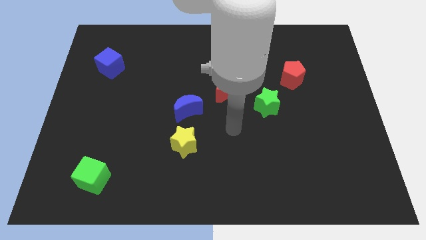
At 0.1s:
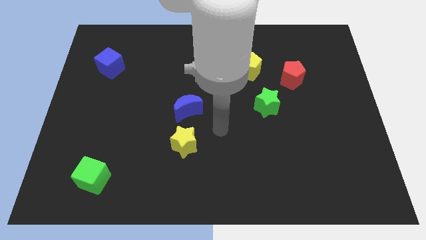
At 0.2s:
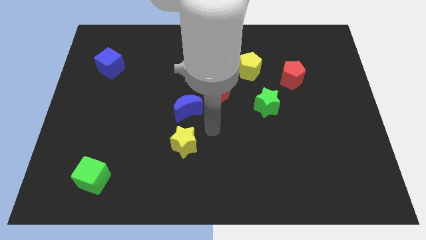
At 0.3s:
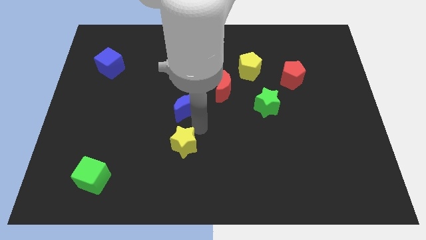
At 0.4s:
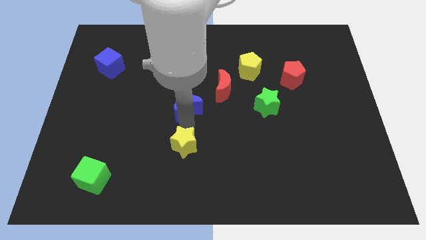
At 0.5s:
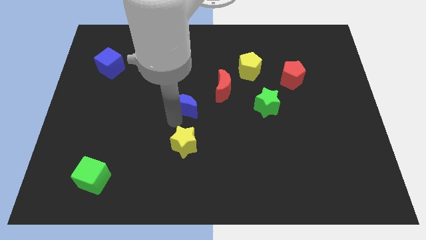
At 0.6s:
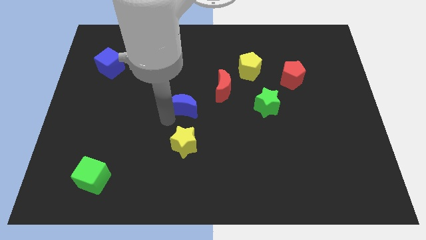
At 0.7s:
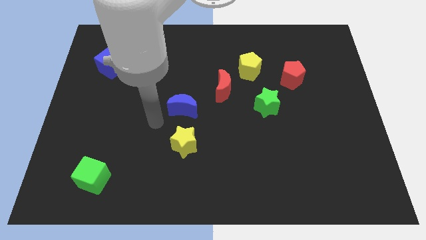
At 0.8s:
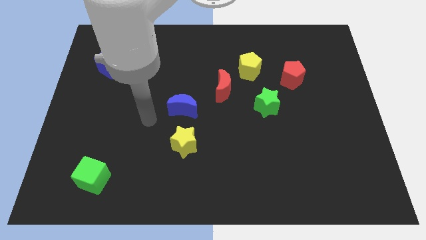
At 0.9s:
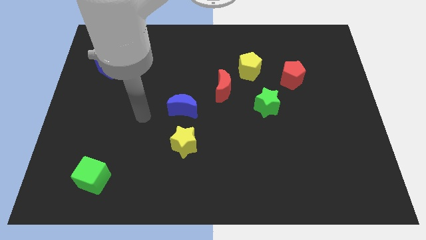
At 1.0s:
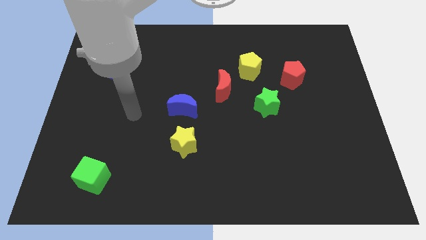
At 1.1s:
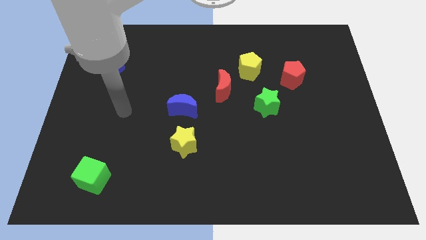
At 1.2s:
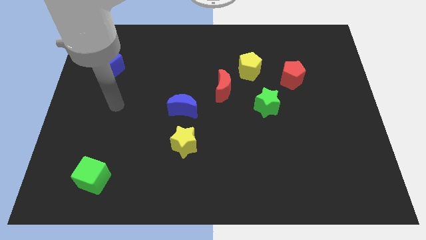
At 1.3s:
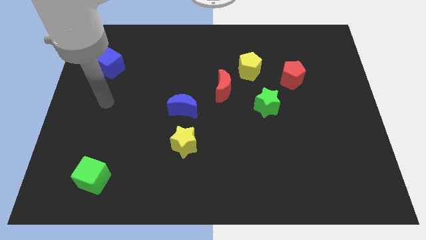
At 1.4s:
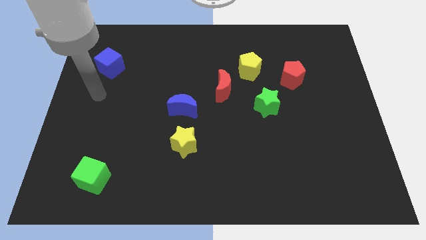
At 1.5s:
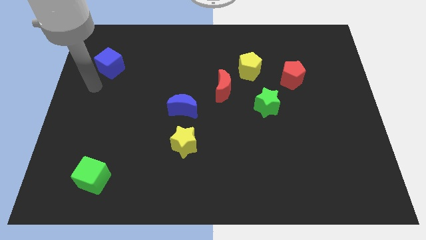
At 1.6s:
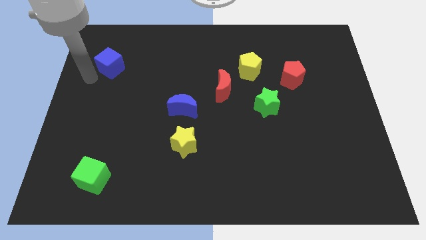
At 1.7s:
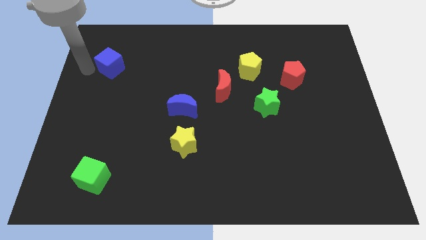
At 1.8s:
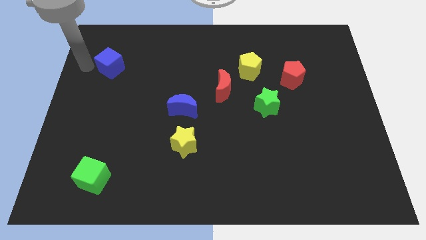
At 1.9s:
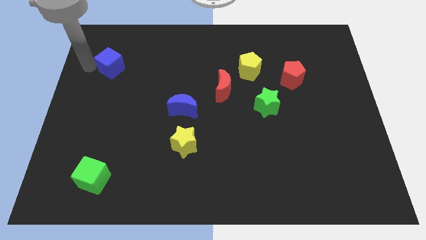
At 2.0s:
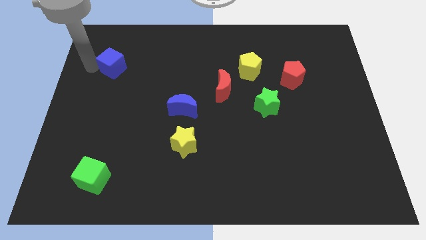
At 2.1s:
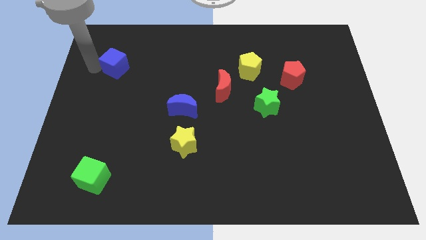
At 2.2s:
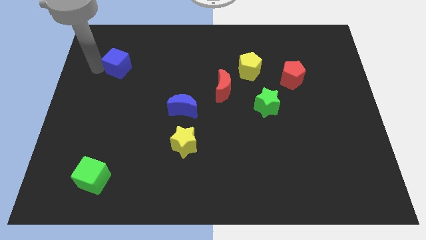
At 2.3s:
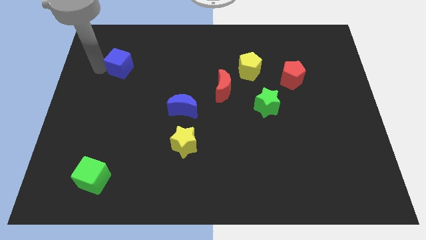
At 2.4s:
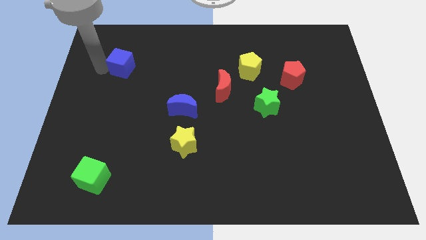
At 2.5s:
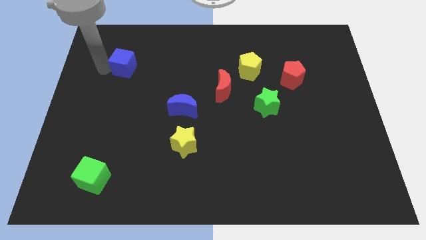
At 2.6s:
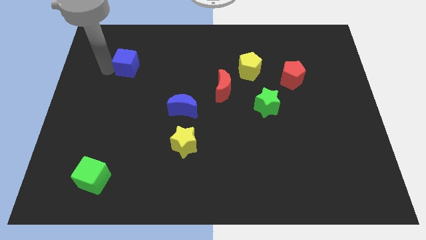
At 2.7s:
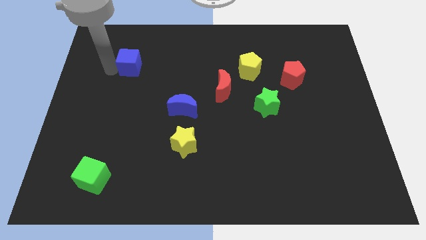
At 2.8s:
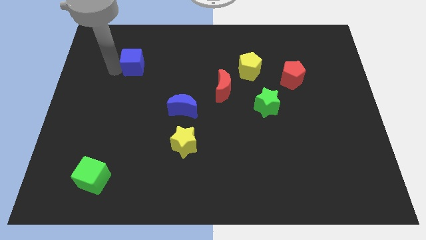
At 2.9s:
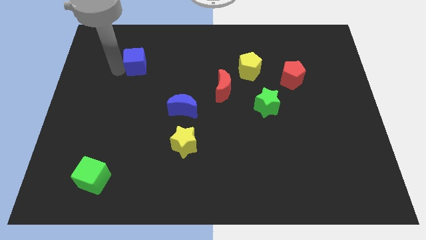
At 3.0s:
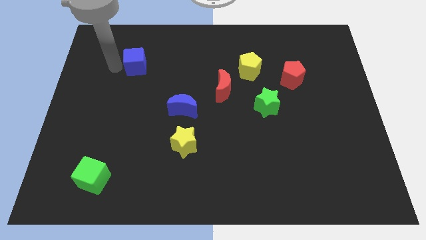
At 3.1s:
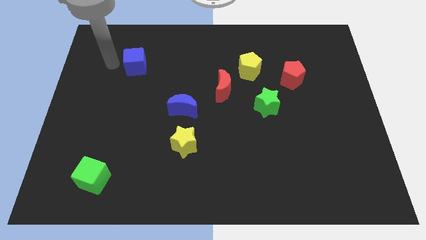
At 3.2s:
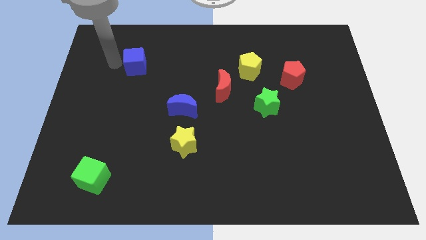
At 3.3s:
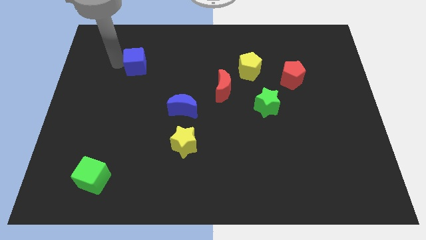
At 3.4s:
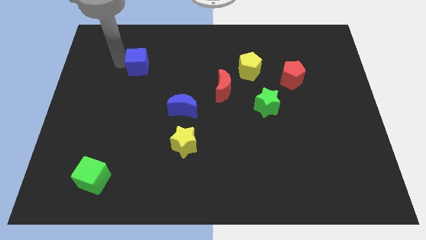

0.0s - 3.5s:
slightly slide the blue cube right

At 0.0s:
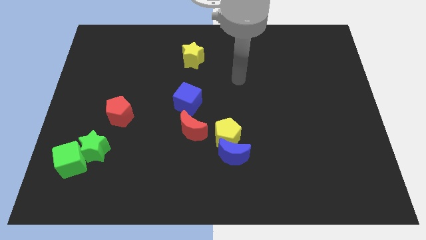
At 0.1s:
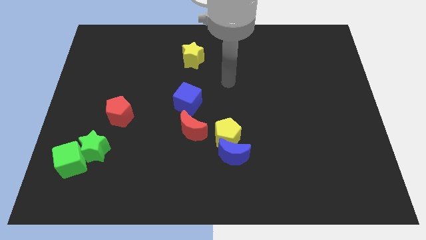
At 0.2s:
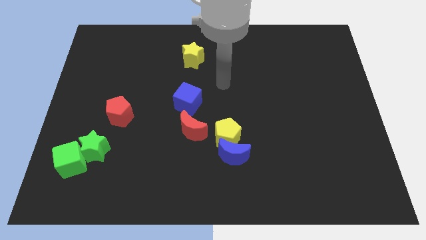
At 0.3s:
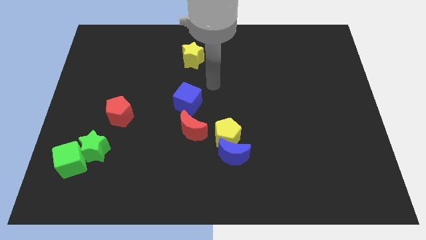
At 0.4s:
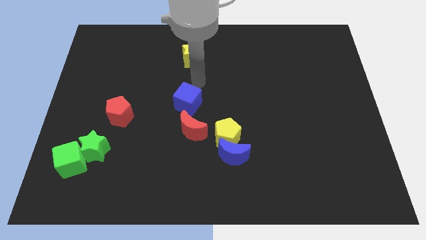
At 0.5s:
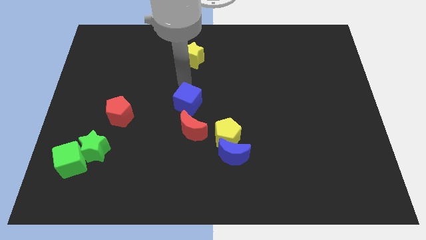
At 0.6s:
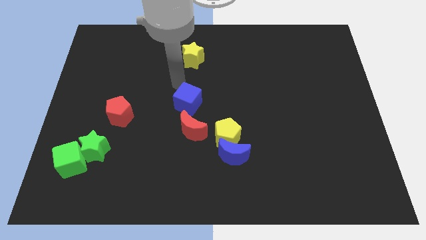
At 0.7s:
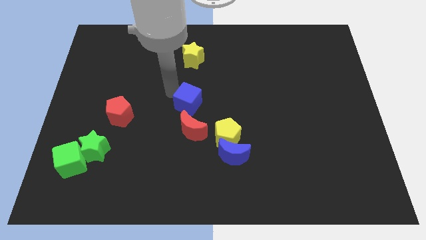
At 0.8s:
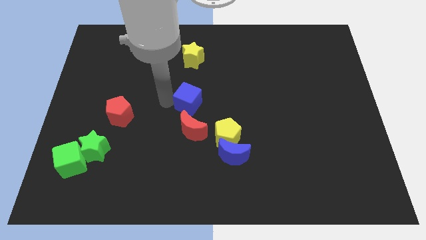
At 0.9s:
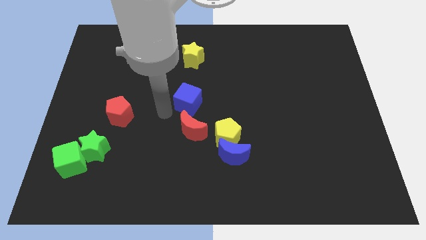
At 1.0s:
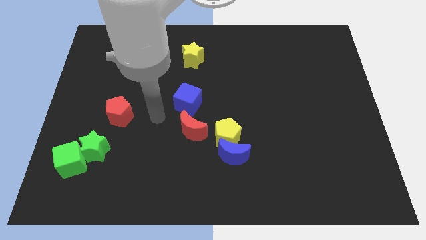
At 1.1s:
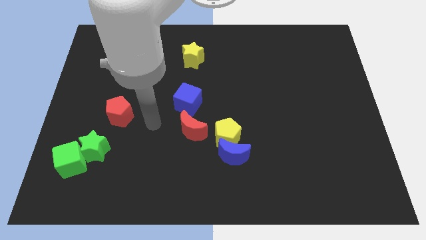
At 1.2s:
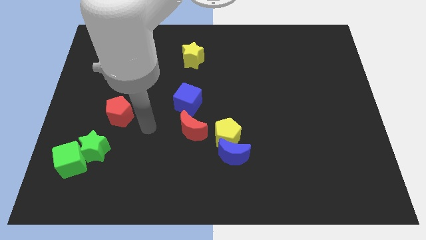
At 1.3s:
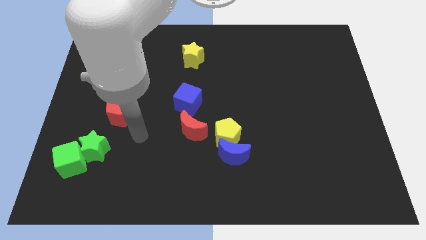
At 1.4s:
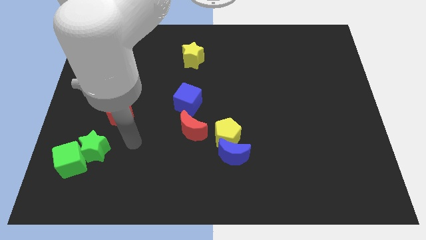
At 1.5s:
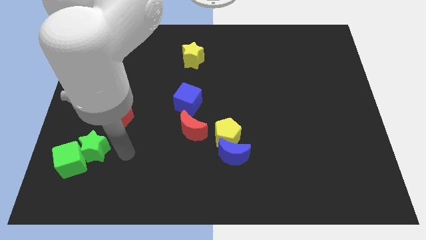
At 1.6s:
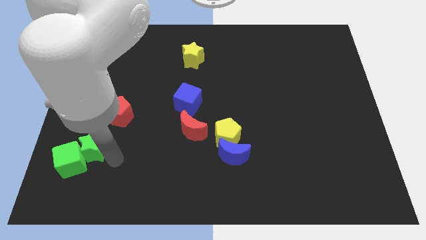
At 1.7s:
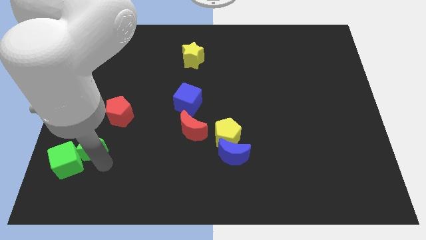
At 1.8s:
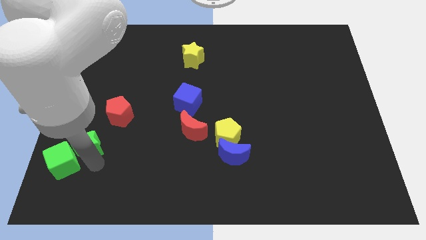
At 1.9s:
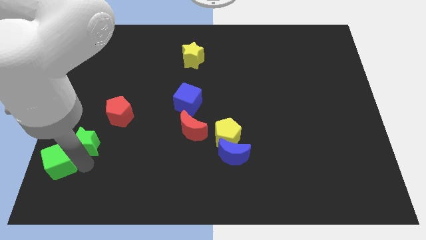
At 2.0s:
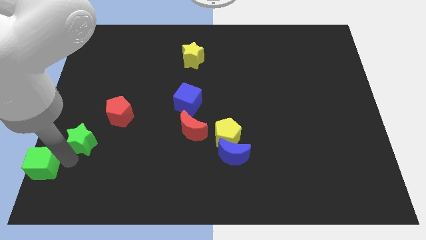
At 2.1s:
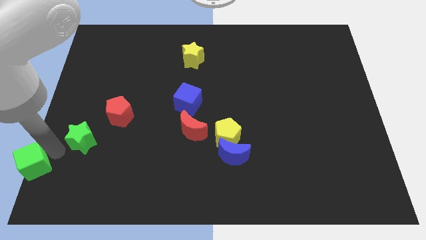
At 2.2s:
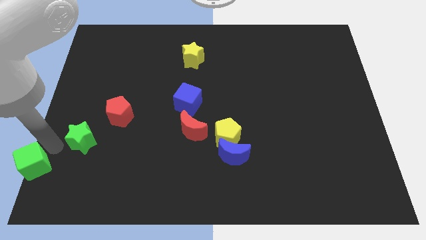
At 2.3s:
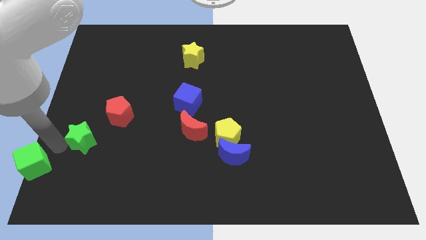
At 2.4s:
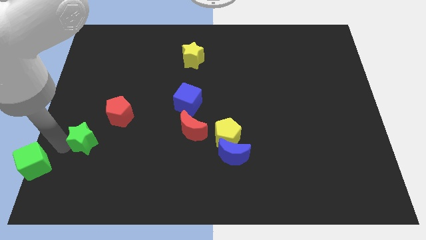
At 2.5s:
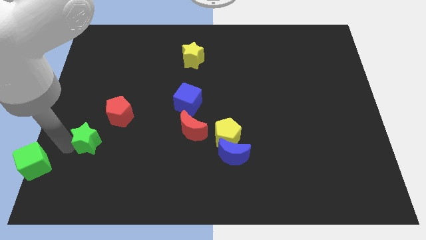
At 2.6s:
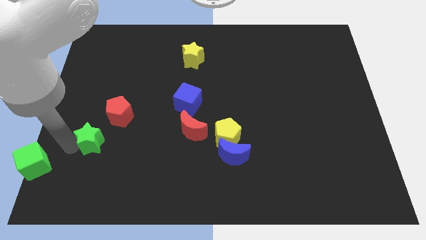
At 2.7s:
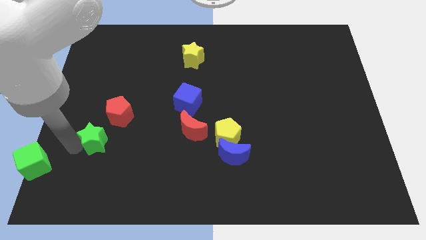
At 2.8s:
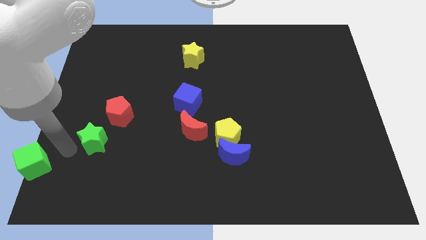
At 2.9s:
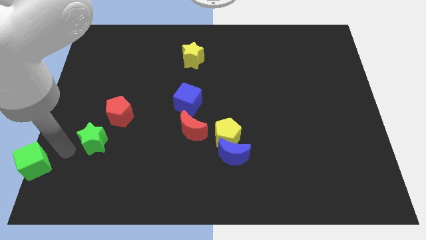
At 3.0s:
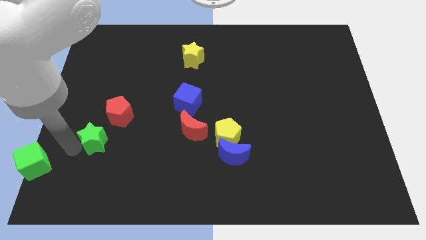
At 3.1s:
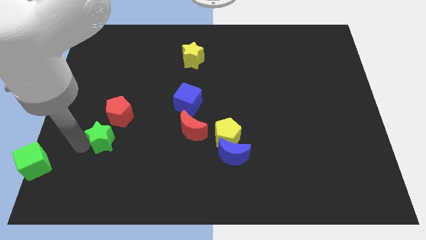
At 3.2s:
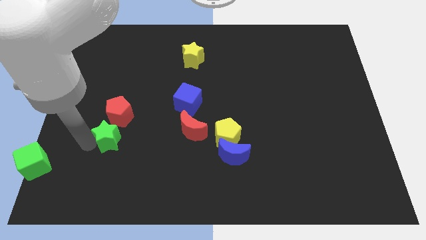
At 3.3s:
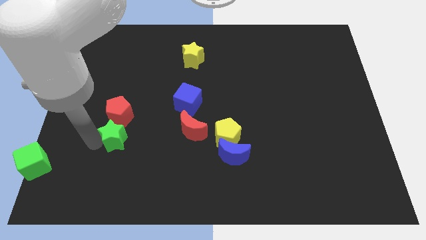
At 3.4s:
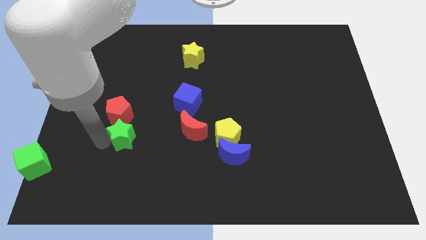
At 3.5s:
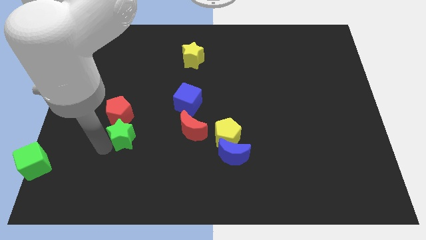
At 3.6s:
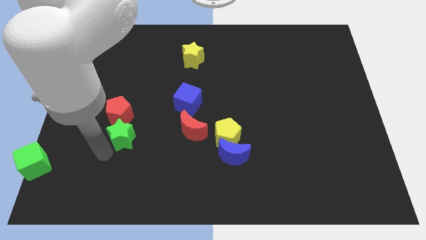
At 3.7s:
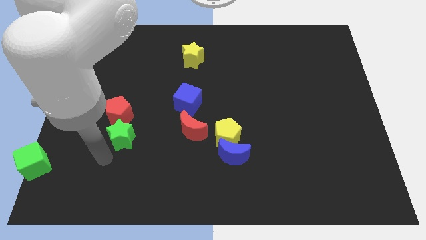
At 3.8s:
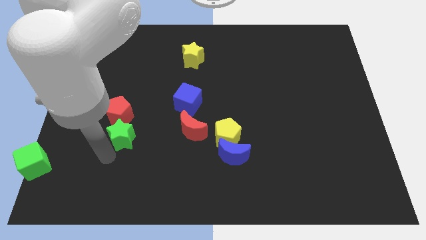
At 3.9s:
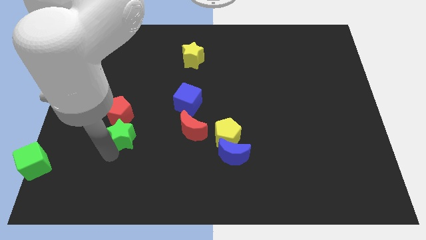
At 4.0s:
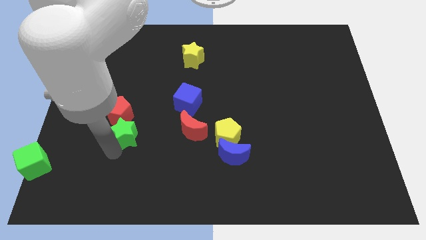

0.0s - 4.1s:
move the green star upwards and right diagonally a little bit

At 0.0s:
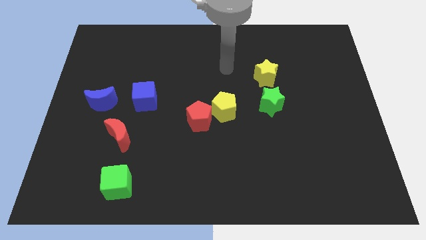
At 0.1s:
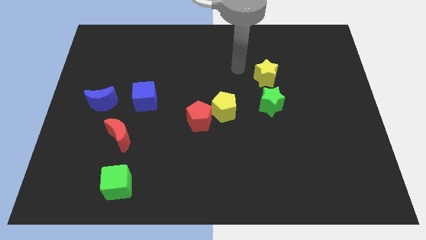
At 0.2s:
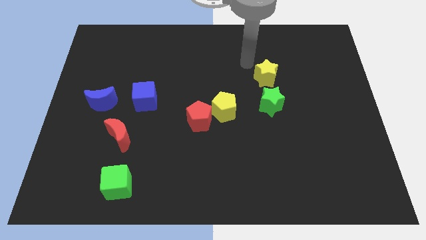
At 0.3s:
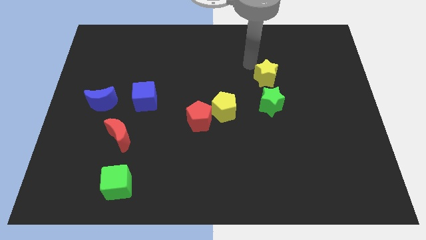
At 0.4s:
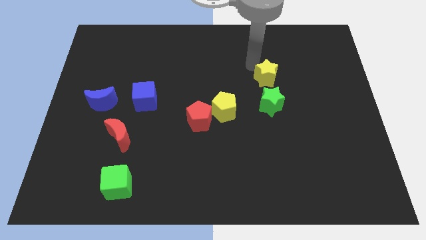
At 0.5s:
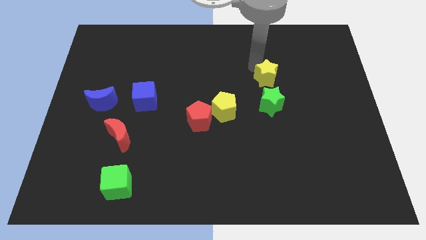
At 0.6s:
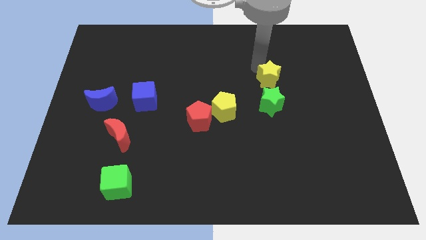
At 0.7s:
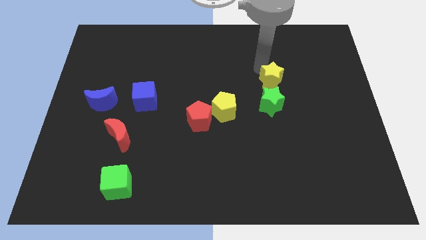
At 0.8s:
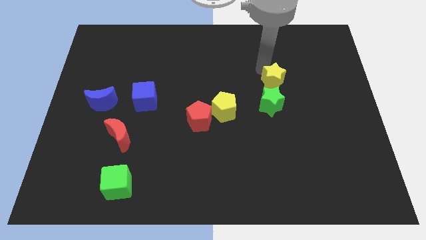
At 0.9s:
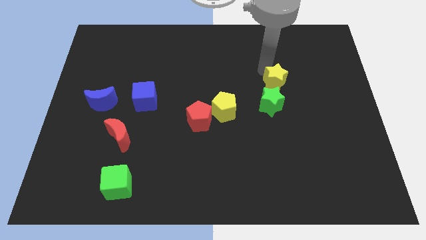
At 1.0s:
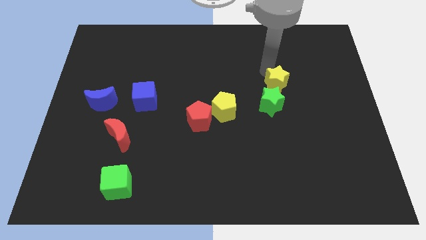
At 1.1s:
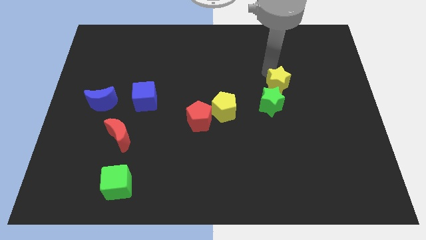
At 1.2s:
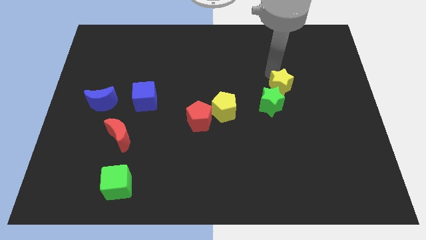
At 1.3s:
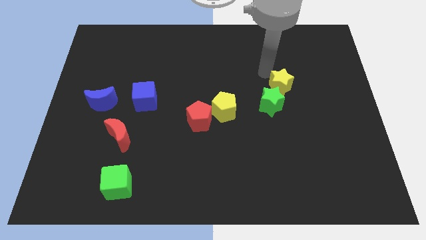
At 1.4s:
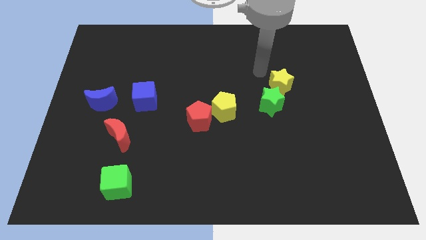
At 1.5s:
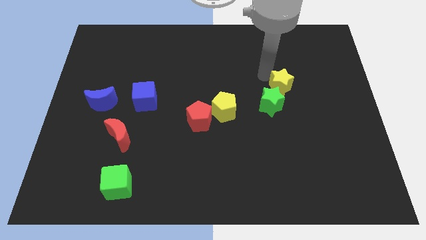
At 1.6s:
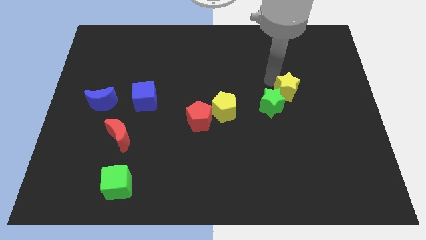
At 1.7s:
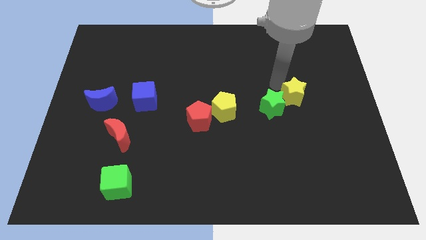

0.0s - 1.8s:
push the yellow star downwards and then right a bit
